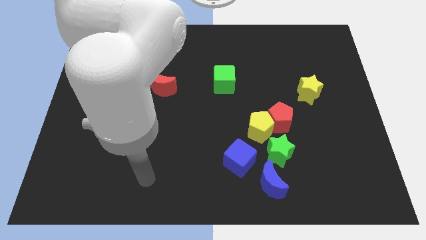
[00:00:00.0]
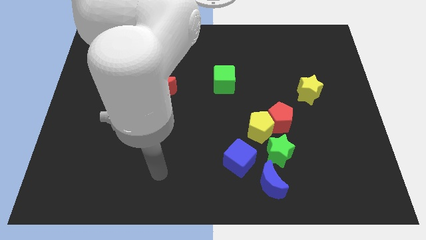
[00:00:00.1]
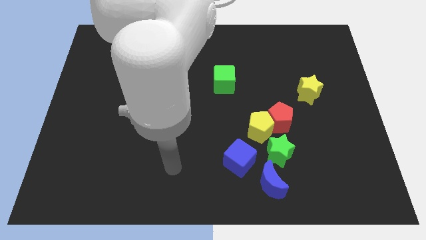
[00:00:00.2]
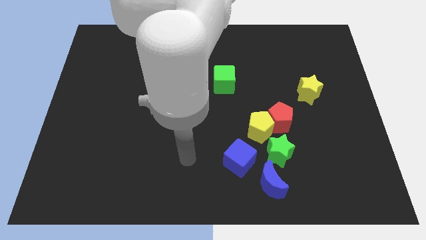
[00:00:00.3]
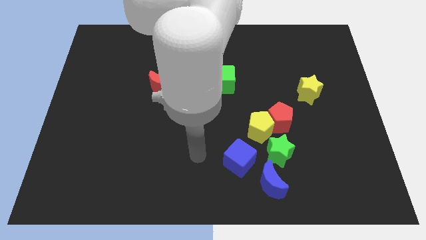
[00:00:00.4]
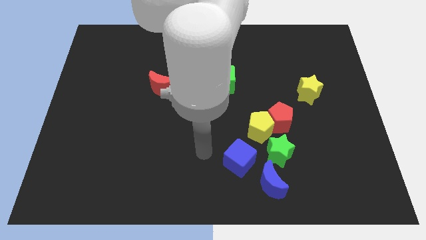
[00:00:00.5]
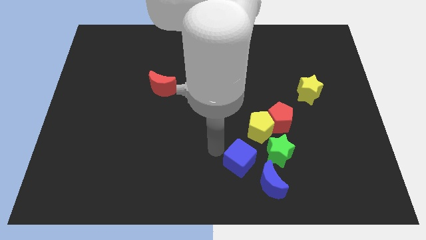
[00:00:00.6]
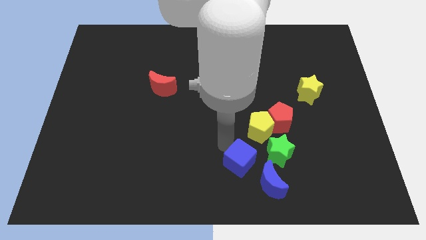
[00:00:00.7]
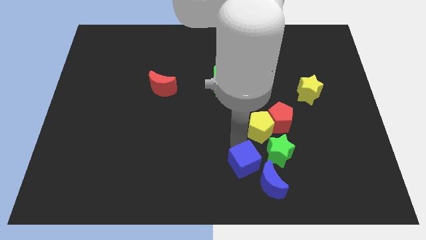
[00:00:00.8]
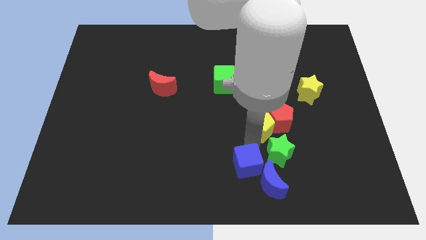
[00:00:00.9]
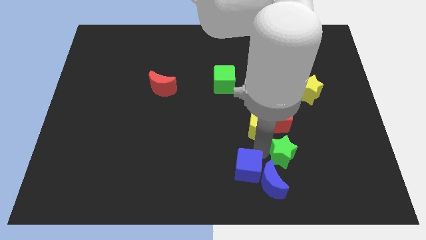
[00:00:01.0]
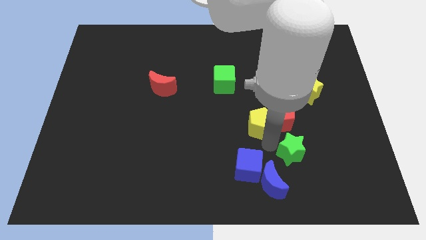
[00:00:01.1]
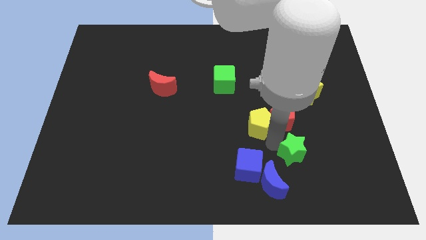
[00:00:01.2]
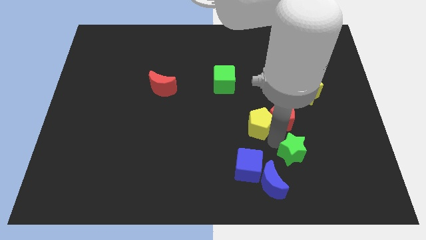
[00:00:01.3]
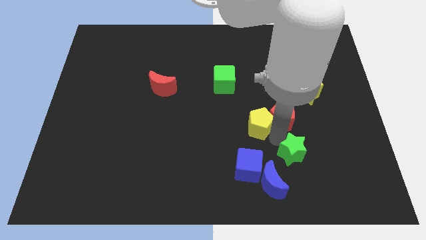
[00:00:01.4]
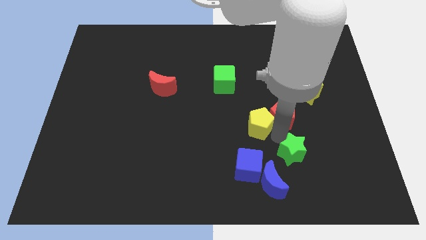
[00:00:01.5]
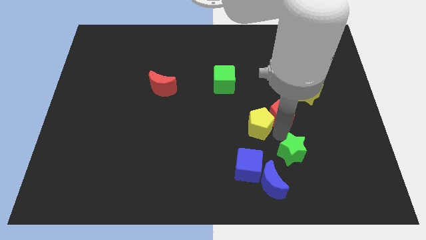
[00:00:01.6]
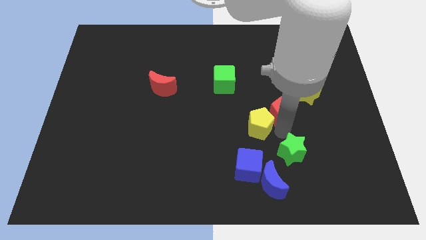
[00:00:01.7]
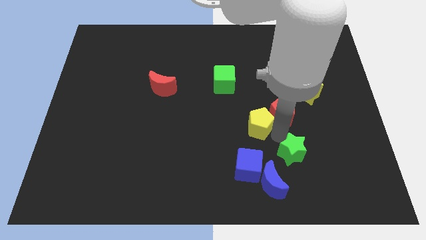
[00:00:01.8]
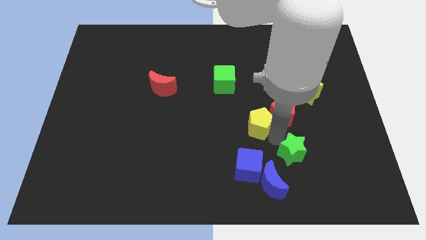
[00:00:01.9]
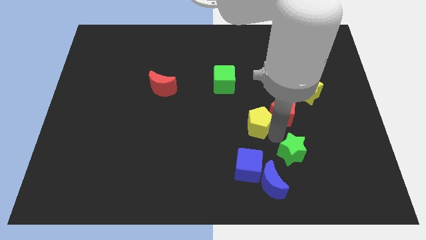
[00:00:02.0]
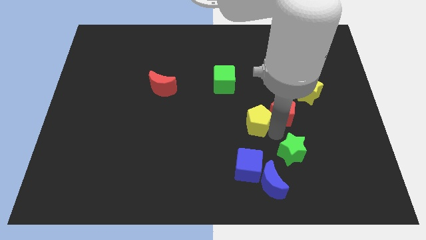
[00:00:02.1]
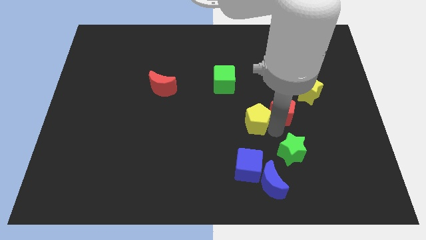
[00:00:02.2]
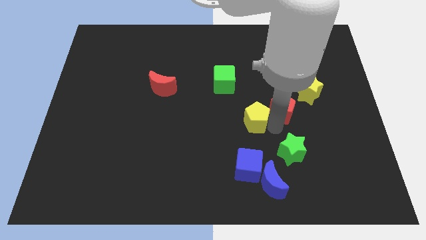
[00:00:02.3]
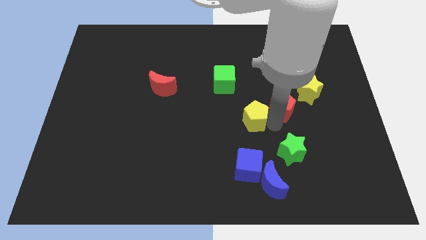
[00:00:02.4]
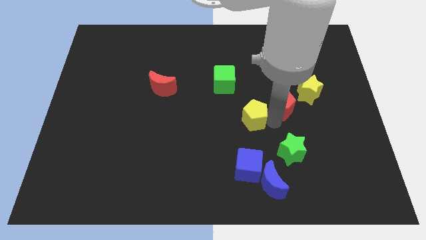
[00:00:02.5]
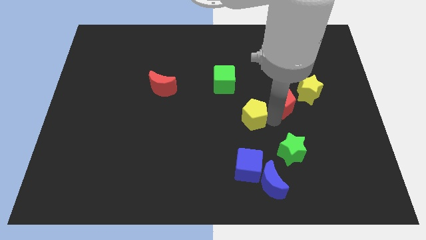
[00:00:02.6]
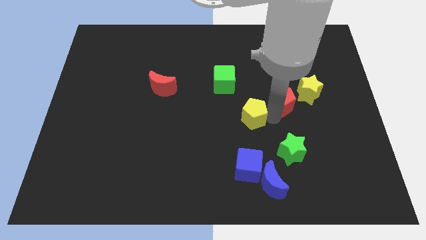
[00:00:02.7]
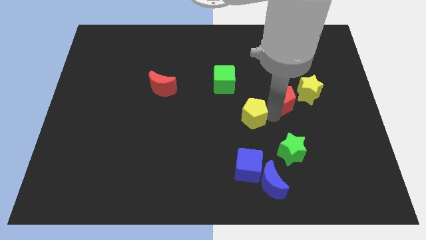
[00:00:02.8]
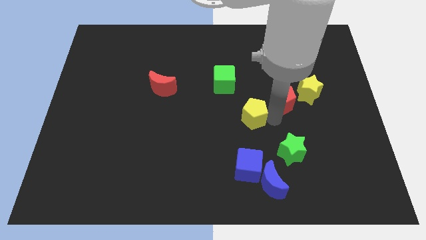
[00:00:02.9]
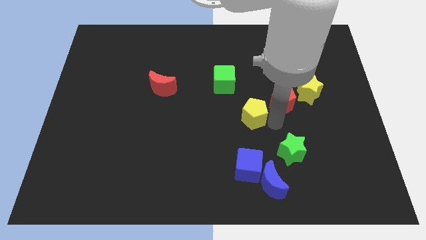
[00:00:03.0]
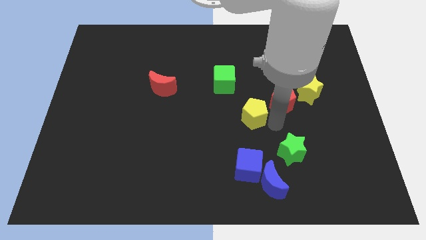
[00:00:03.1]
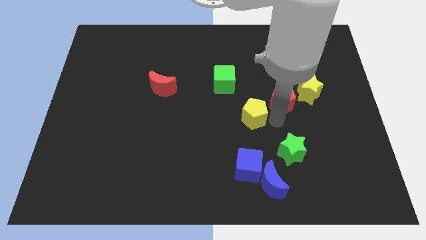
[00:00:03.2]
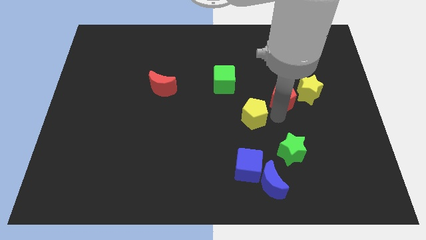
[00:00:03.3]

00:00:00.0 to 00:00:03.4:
pull the red pentagon apart from the yellow pentagon and green star

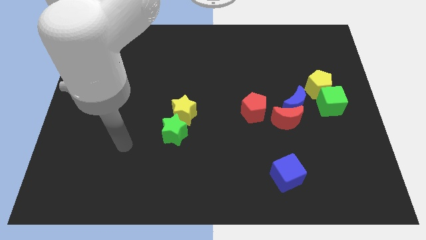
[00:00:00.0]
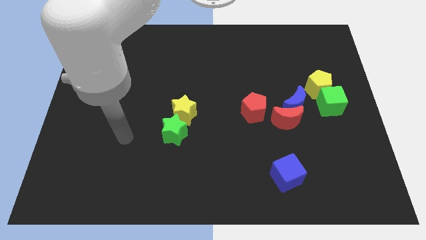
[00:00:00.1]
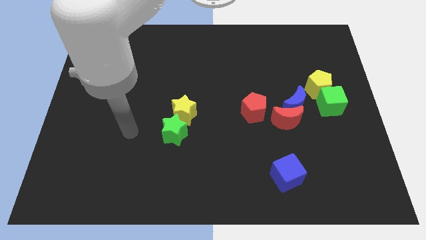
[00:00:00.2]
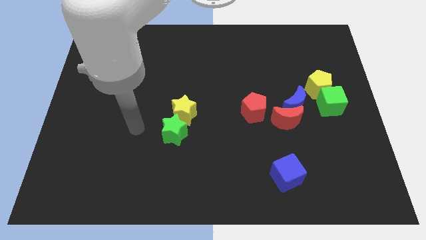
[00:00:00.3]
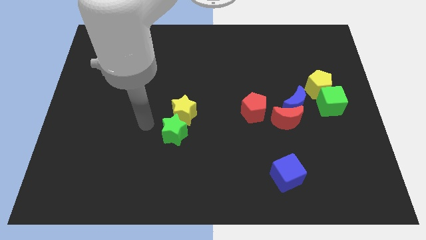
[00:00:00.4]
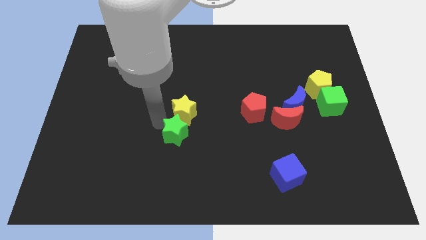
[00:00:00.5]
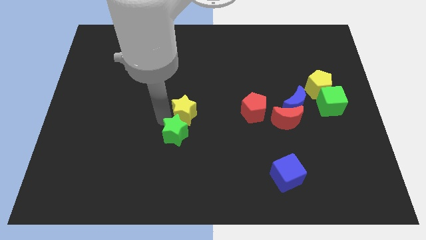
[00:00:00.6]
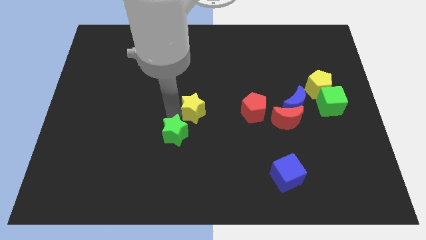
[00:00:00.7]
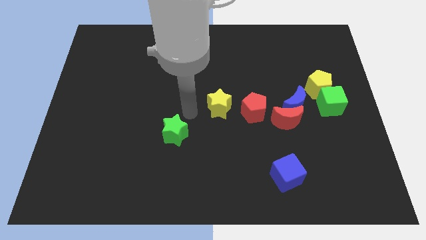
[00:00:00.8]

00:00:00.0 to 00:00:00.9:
separate the green star from the yellow star

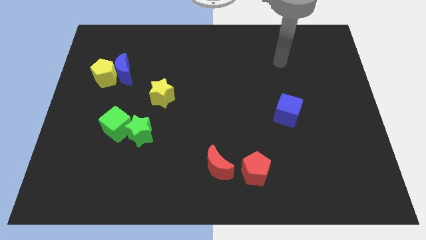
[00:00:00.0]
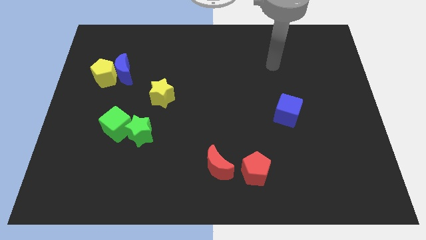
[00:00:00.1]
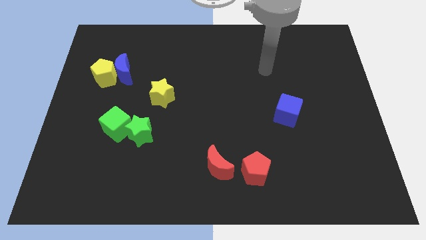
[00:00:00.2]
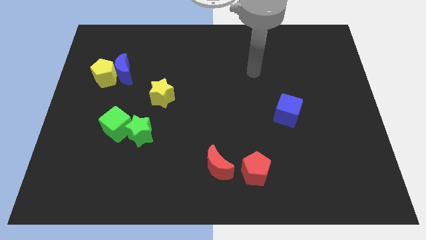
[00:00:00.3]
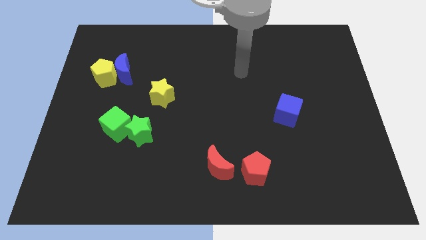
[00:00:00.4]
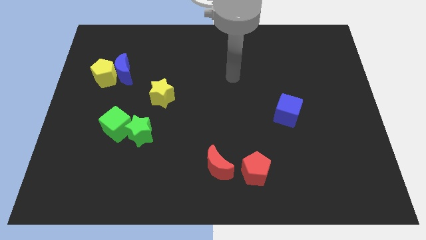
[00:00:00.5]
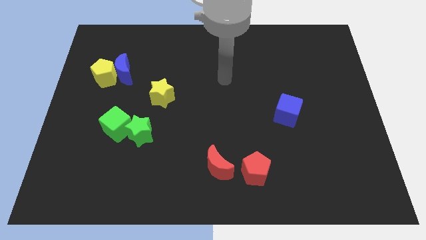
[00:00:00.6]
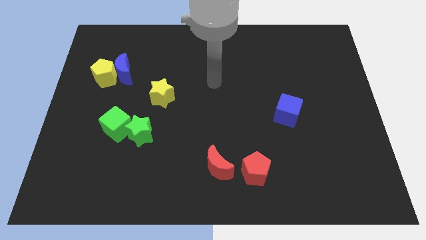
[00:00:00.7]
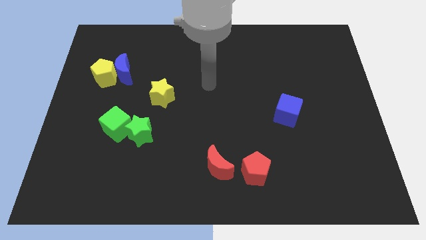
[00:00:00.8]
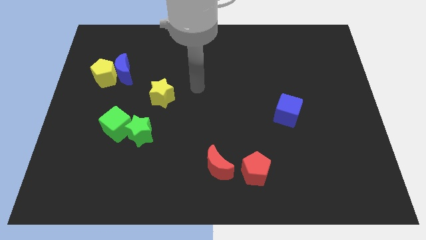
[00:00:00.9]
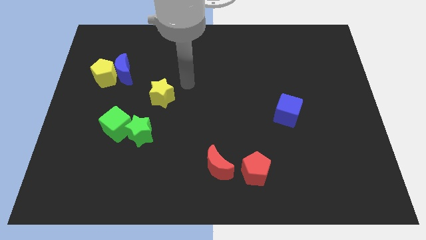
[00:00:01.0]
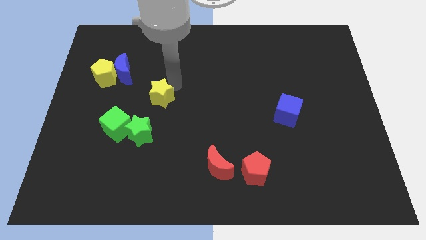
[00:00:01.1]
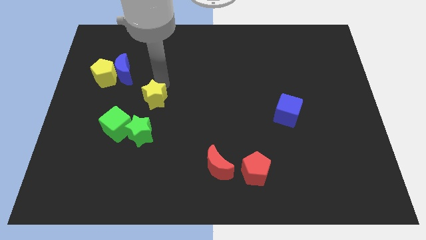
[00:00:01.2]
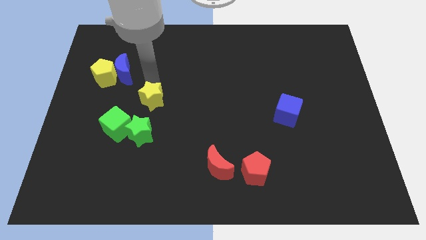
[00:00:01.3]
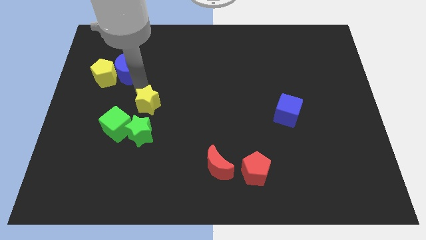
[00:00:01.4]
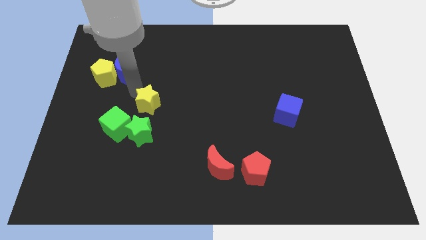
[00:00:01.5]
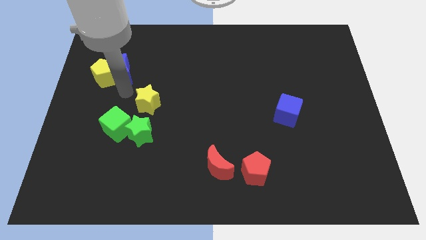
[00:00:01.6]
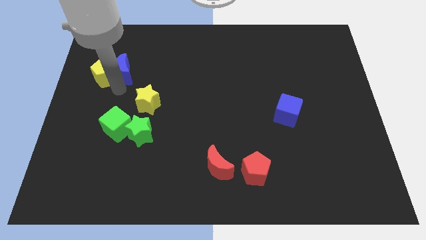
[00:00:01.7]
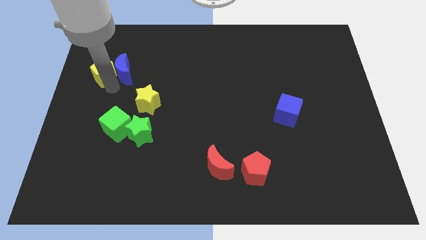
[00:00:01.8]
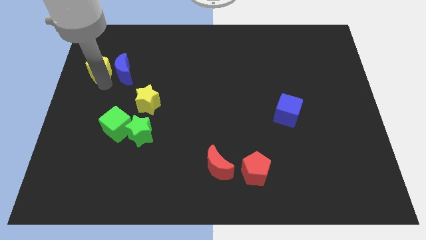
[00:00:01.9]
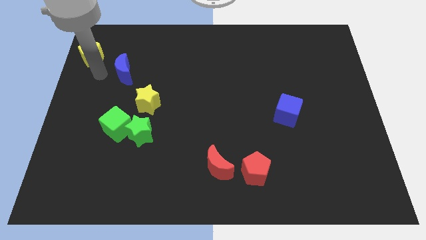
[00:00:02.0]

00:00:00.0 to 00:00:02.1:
move the blue moon away from the yellow pentagon

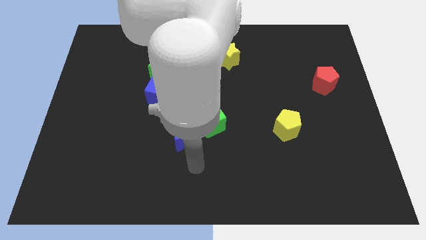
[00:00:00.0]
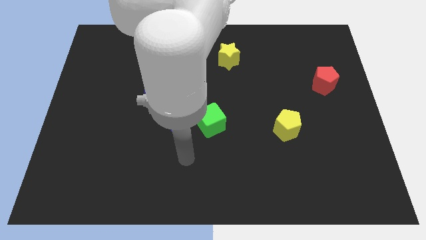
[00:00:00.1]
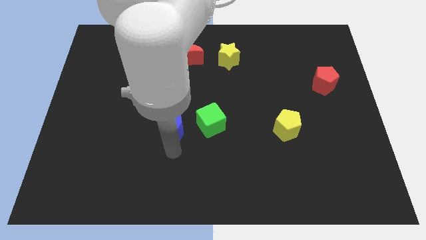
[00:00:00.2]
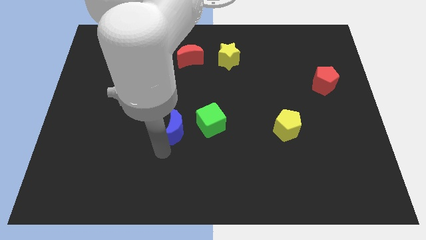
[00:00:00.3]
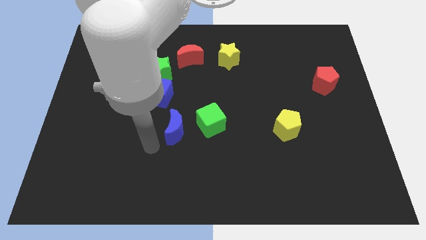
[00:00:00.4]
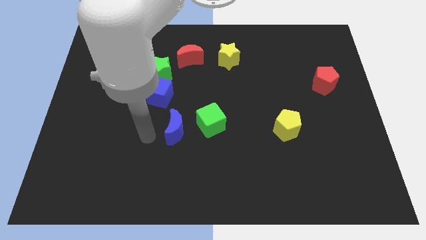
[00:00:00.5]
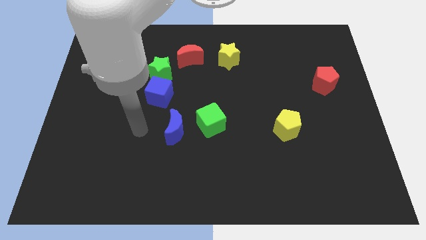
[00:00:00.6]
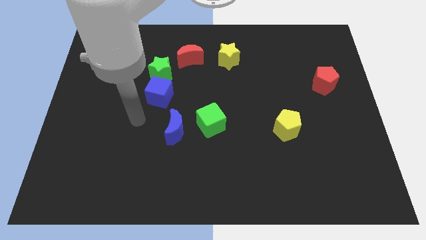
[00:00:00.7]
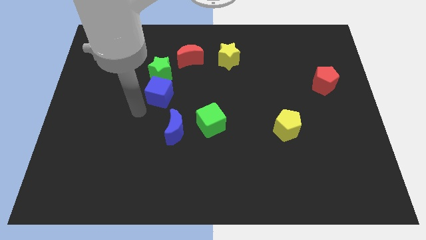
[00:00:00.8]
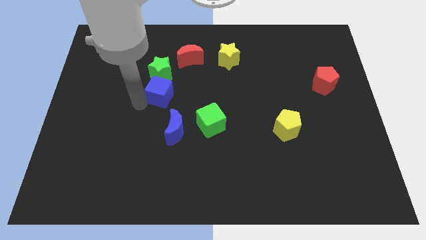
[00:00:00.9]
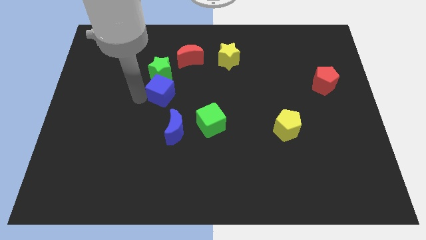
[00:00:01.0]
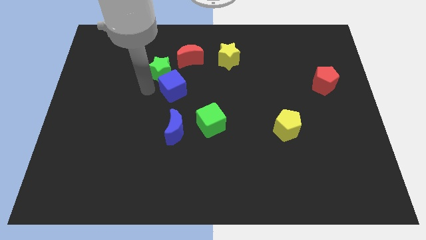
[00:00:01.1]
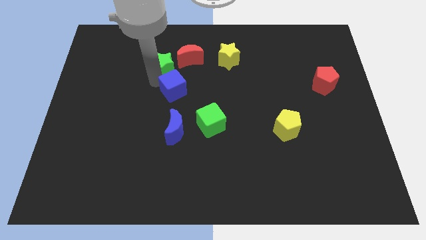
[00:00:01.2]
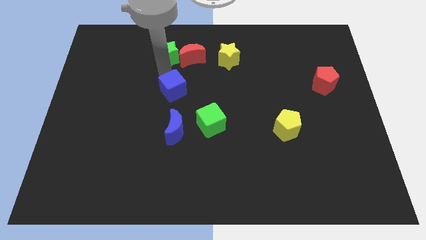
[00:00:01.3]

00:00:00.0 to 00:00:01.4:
move the blue cube away from the green star

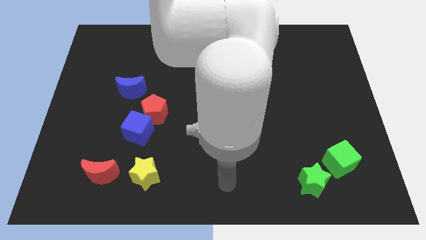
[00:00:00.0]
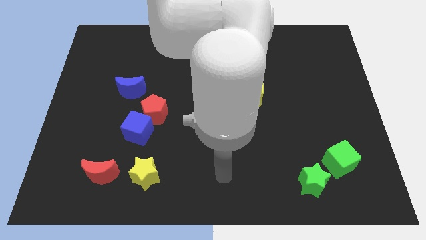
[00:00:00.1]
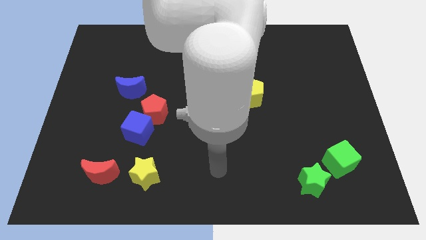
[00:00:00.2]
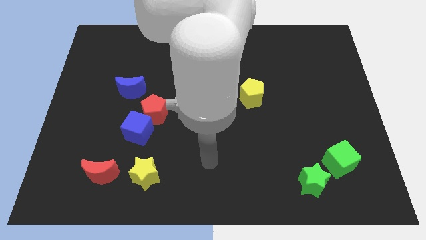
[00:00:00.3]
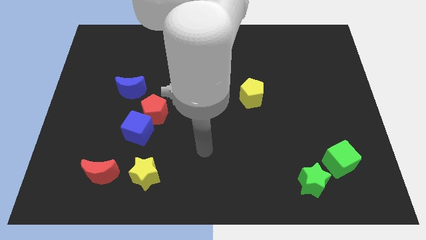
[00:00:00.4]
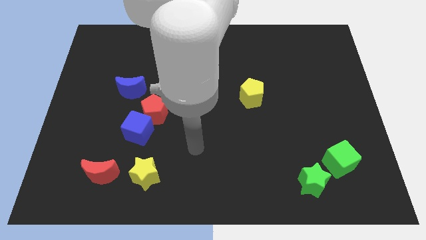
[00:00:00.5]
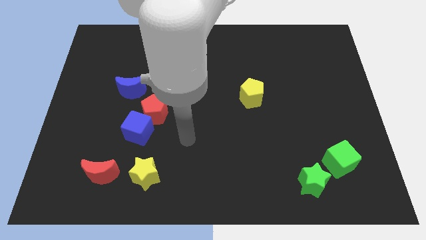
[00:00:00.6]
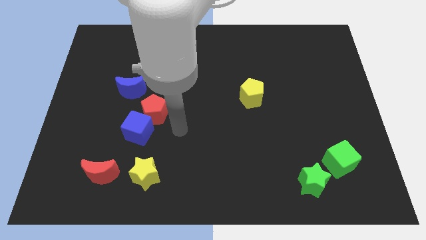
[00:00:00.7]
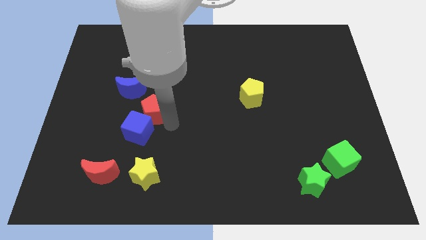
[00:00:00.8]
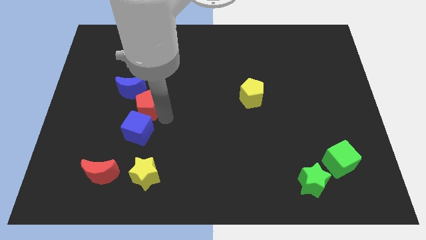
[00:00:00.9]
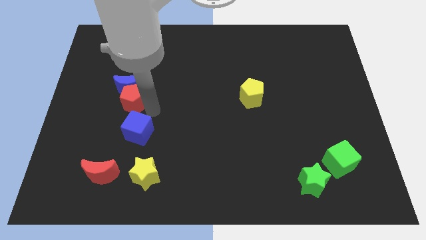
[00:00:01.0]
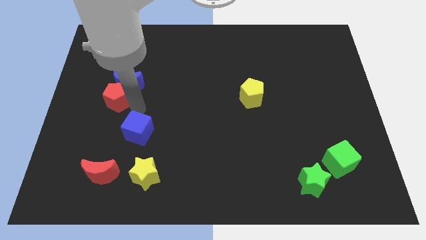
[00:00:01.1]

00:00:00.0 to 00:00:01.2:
move the blue cube away from the red pentagon

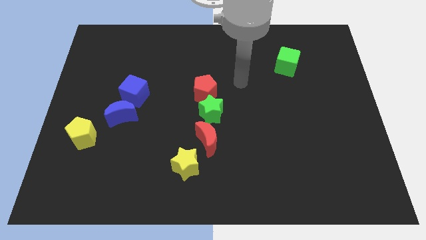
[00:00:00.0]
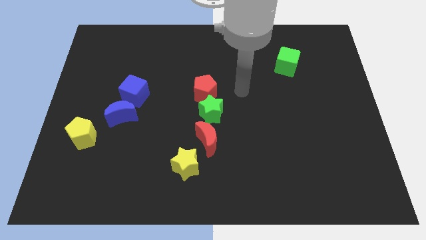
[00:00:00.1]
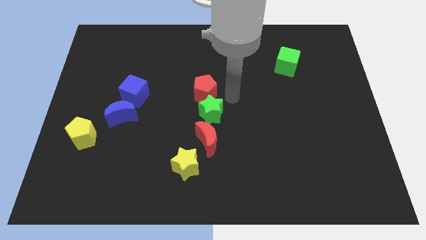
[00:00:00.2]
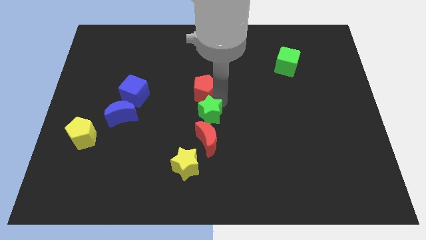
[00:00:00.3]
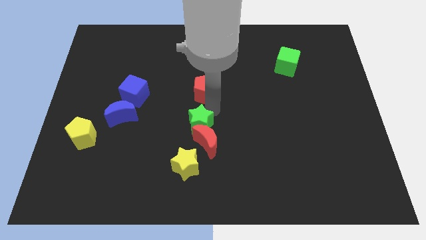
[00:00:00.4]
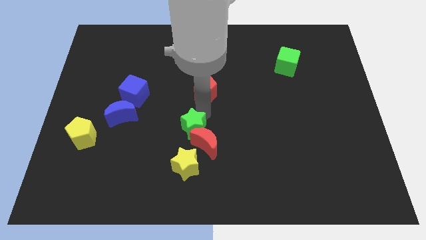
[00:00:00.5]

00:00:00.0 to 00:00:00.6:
move the red pentagon away from the green star
